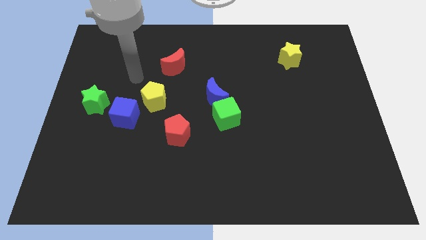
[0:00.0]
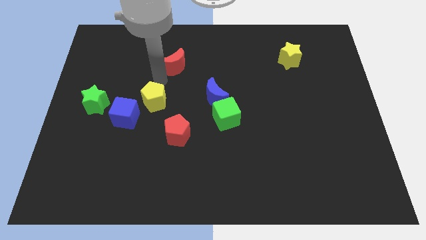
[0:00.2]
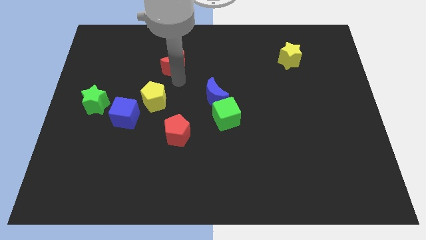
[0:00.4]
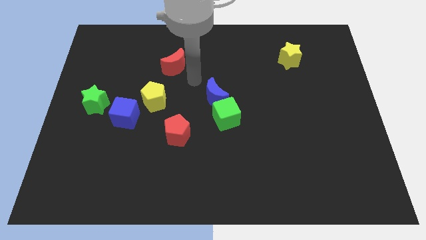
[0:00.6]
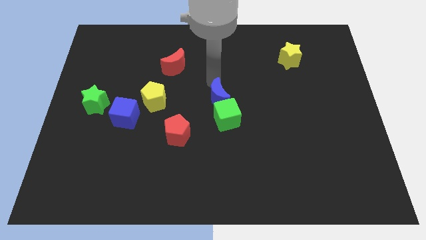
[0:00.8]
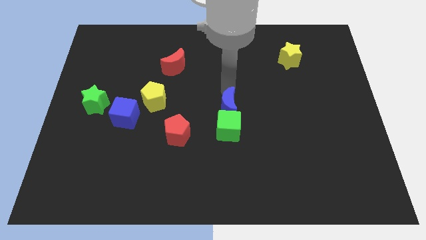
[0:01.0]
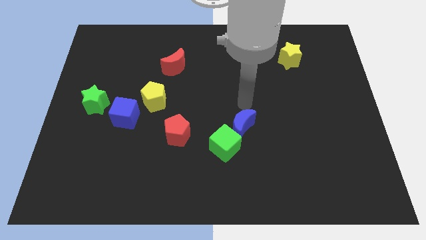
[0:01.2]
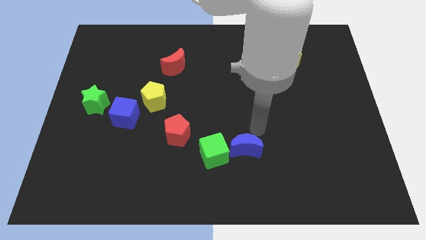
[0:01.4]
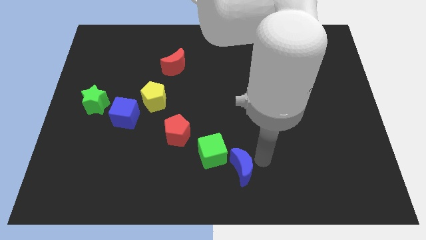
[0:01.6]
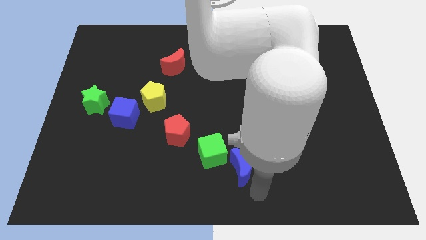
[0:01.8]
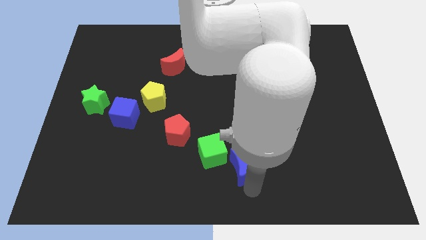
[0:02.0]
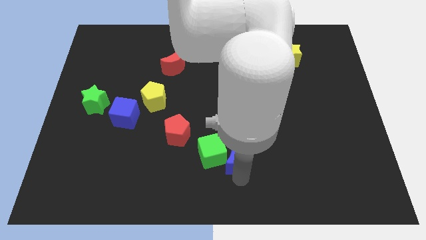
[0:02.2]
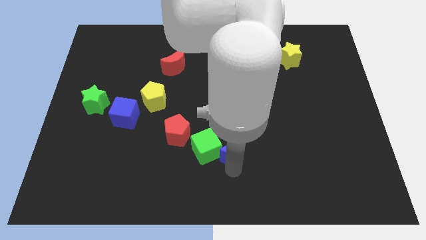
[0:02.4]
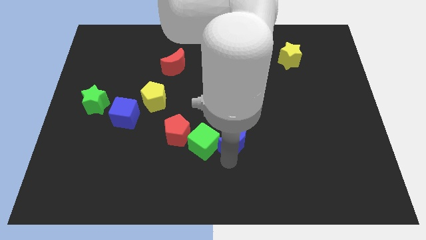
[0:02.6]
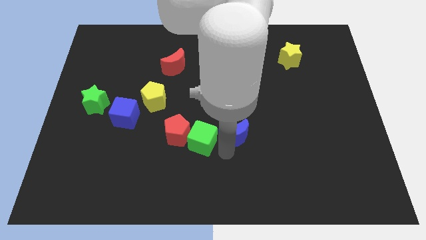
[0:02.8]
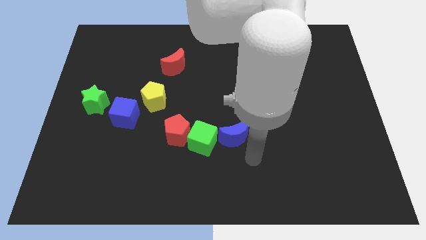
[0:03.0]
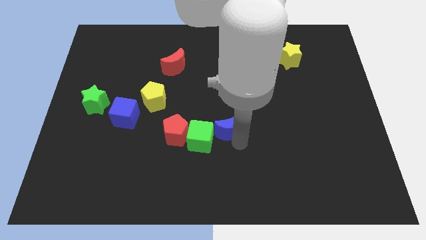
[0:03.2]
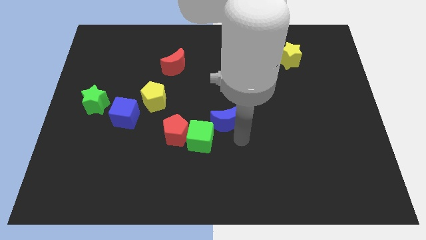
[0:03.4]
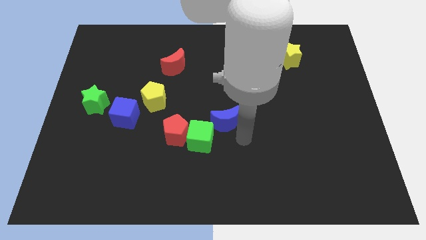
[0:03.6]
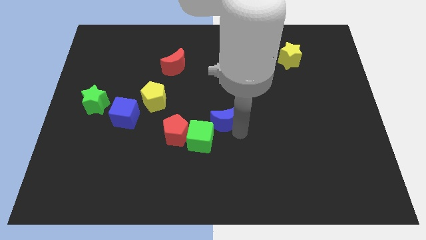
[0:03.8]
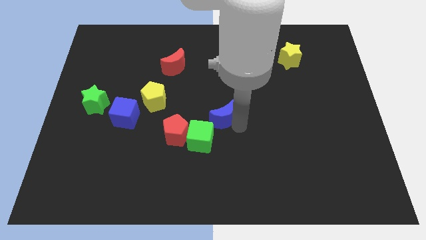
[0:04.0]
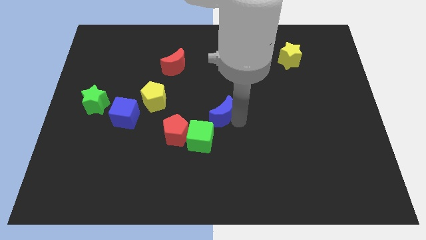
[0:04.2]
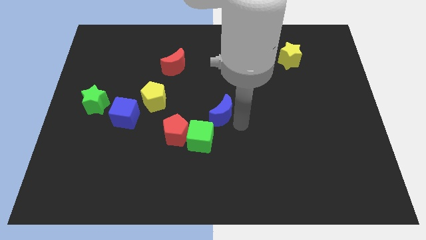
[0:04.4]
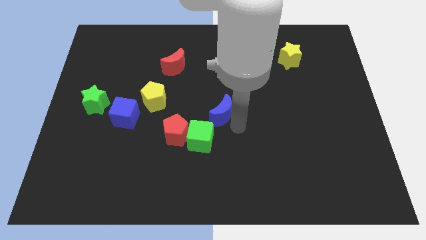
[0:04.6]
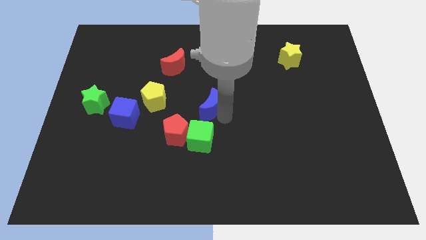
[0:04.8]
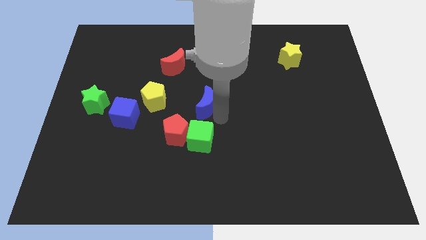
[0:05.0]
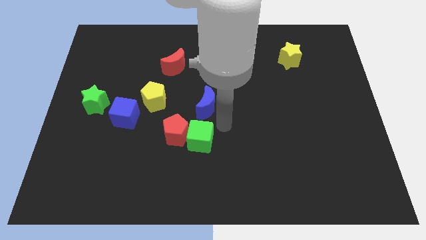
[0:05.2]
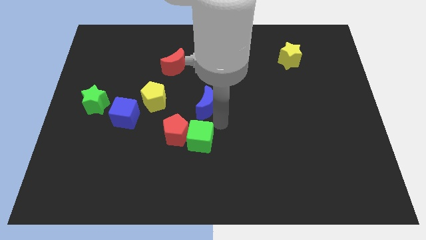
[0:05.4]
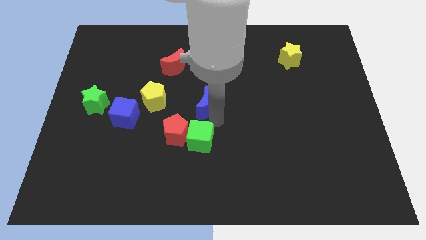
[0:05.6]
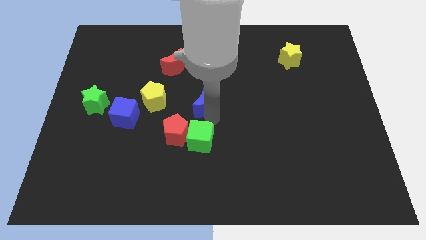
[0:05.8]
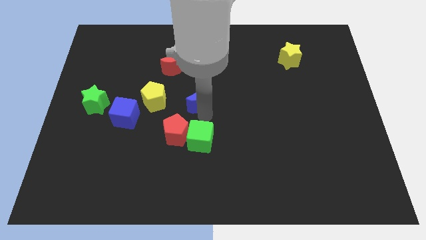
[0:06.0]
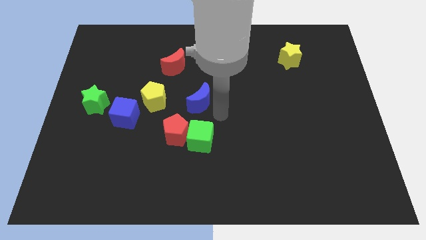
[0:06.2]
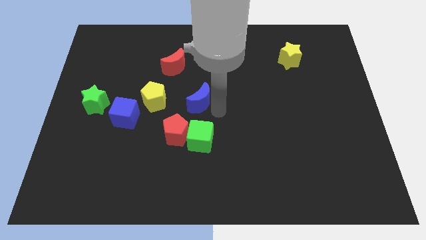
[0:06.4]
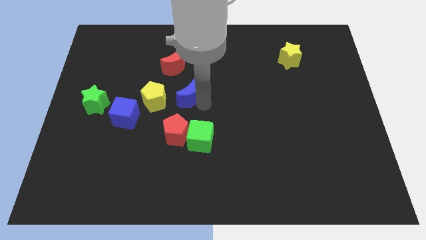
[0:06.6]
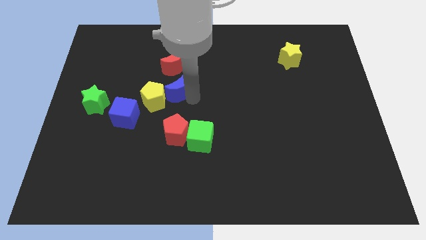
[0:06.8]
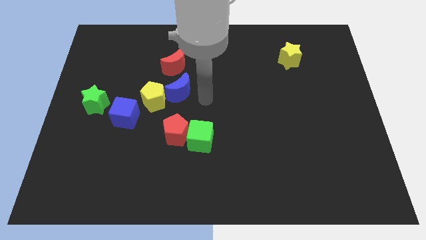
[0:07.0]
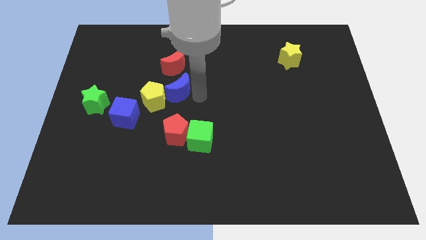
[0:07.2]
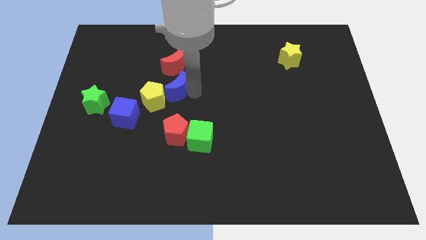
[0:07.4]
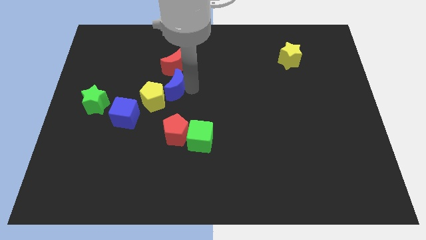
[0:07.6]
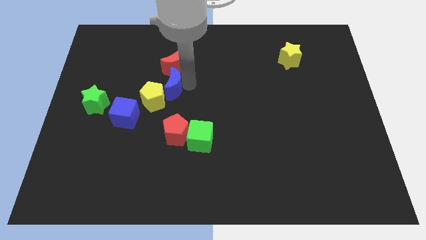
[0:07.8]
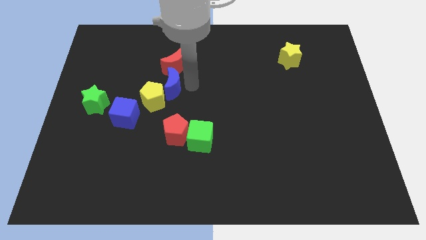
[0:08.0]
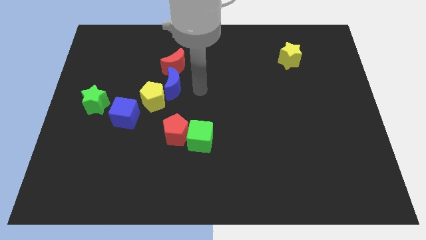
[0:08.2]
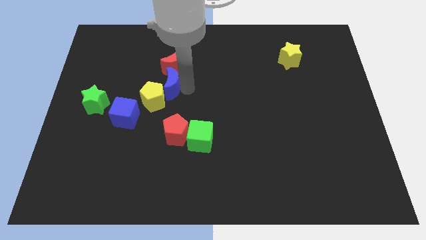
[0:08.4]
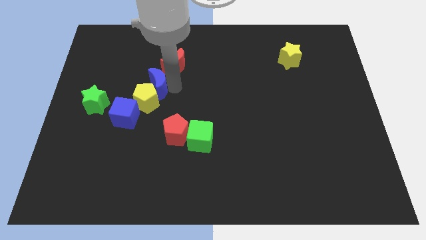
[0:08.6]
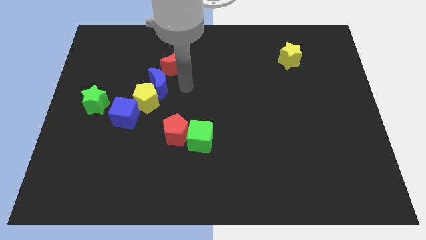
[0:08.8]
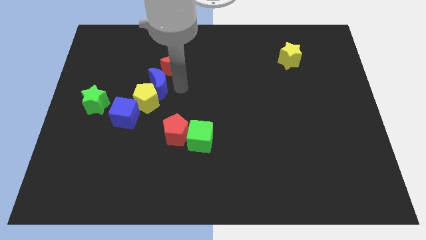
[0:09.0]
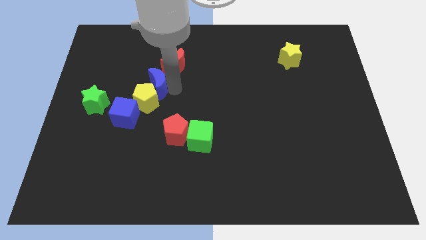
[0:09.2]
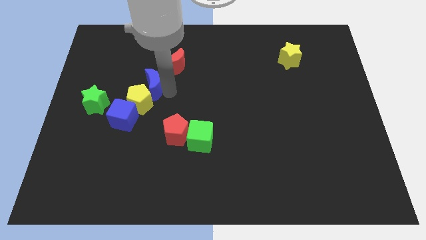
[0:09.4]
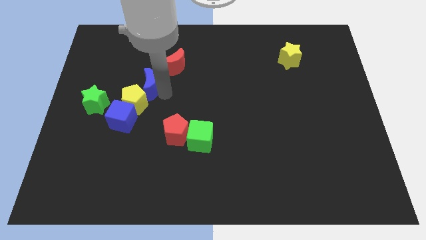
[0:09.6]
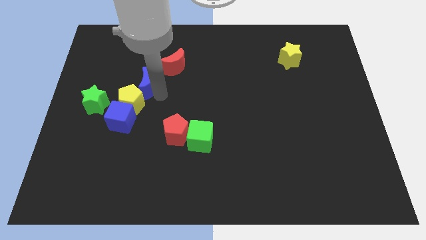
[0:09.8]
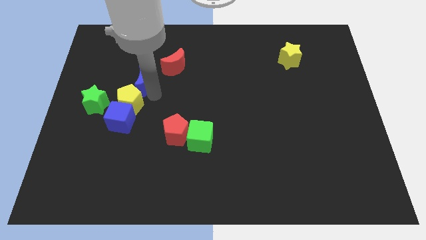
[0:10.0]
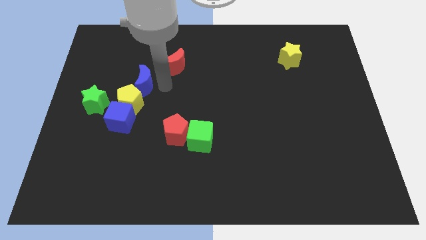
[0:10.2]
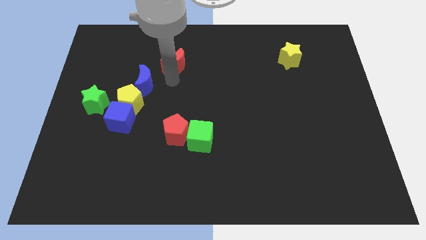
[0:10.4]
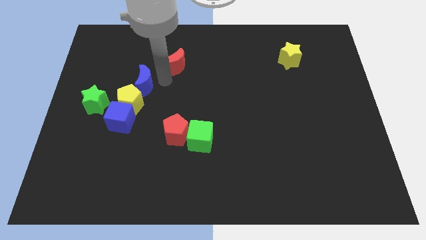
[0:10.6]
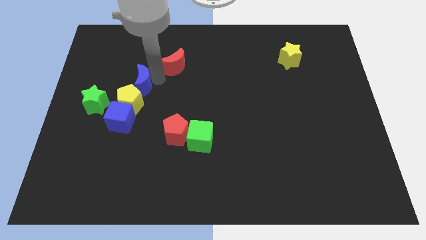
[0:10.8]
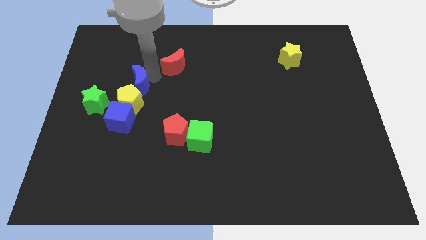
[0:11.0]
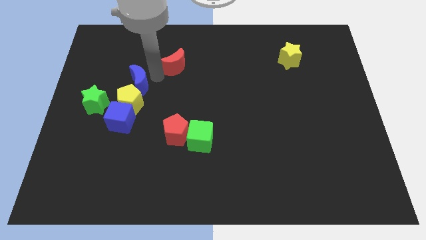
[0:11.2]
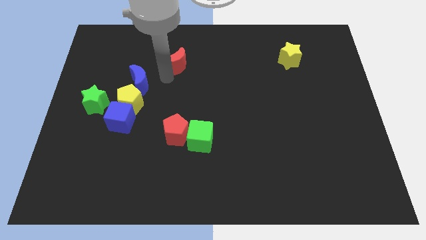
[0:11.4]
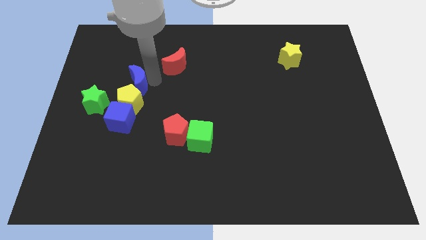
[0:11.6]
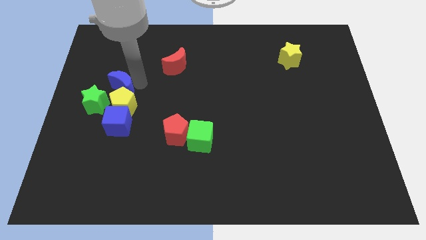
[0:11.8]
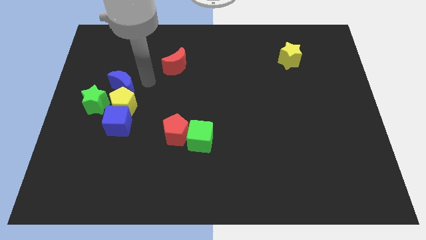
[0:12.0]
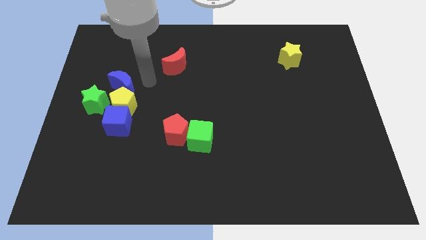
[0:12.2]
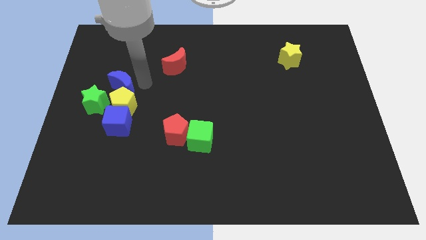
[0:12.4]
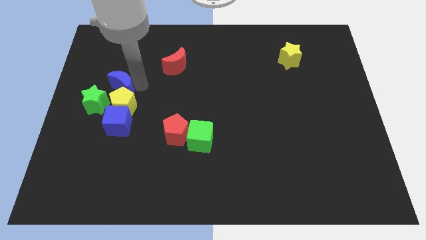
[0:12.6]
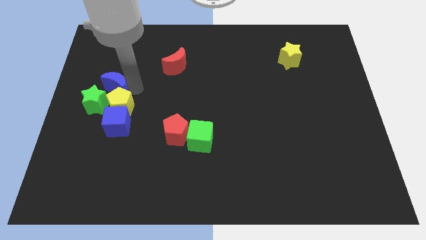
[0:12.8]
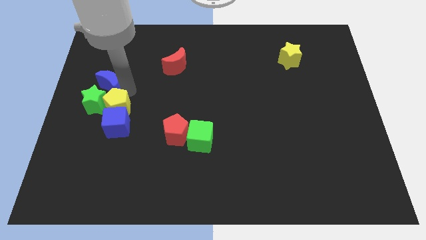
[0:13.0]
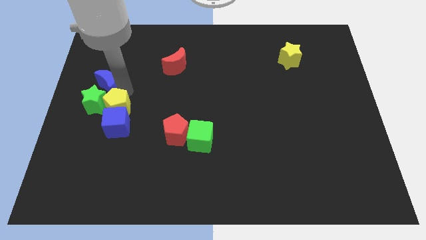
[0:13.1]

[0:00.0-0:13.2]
move the blue moon to the left side
